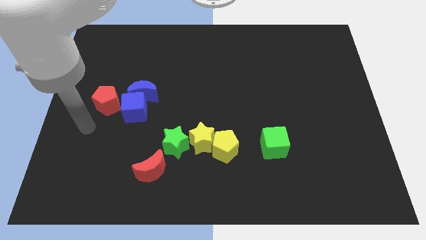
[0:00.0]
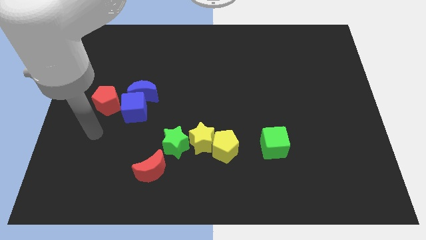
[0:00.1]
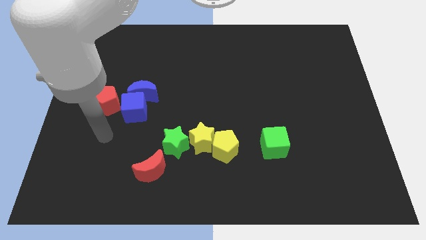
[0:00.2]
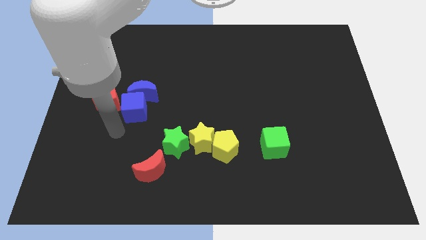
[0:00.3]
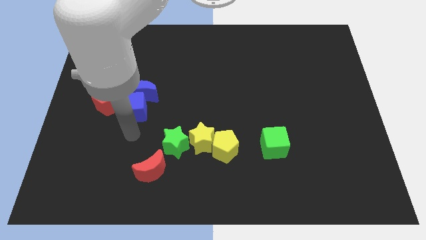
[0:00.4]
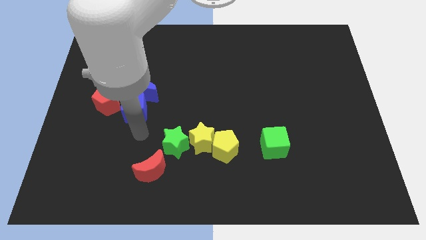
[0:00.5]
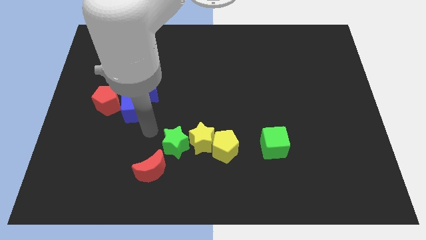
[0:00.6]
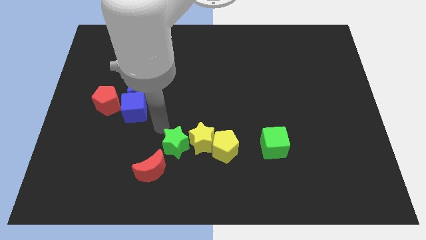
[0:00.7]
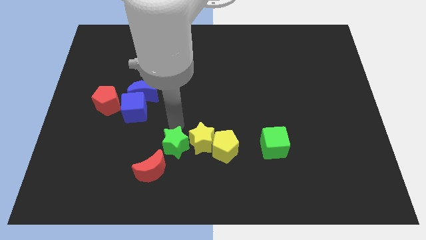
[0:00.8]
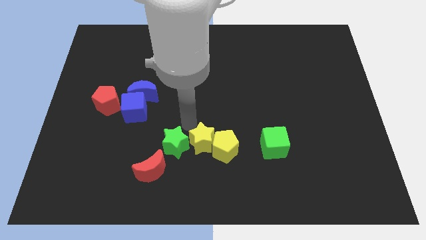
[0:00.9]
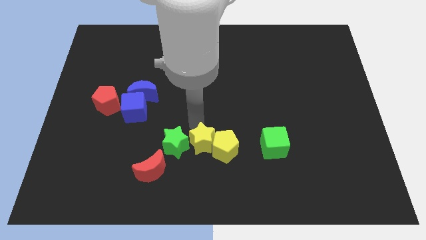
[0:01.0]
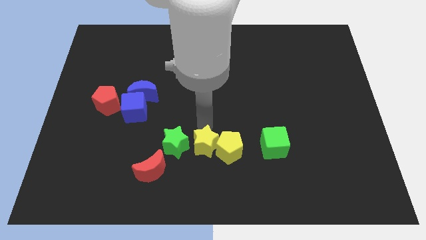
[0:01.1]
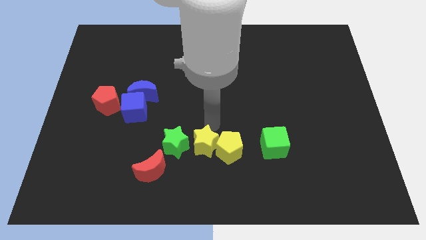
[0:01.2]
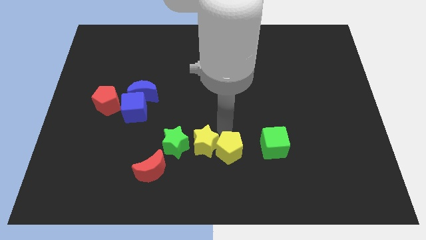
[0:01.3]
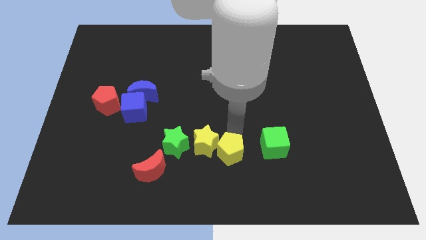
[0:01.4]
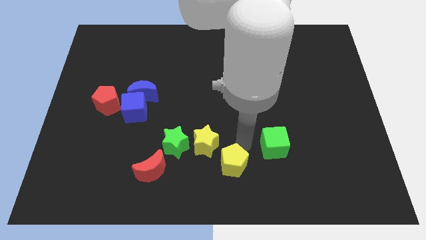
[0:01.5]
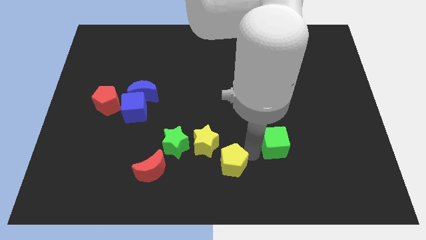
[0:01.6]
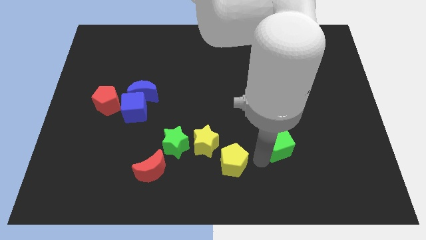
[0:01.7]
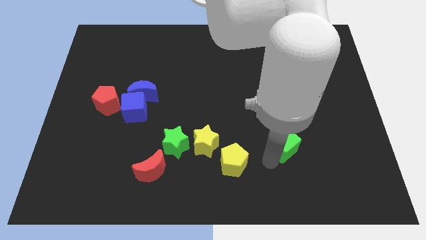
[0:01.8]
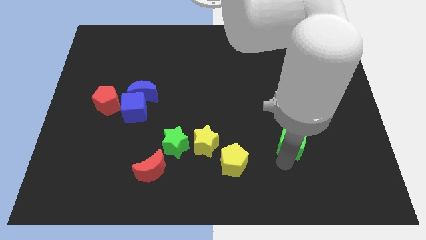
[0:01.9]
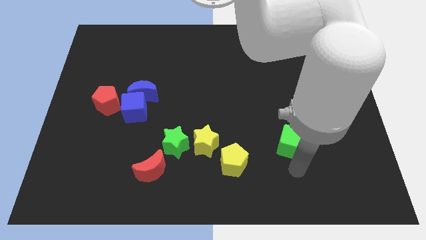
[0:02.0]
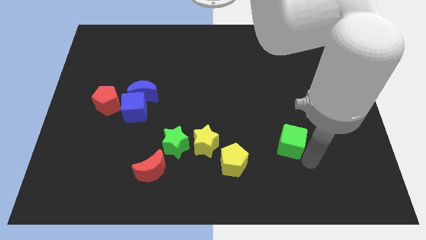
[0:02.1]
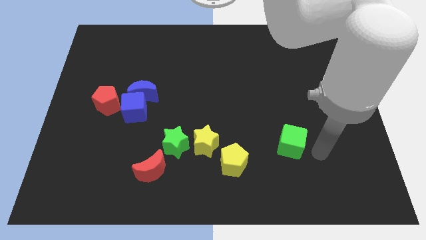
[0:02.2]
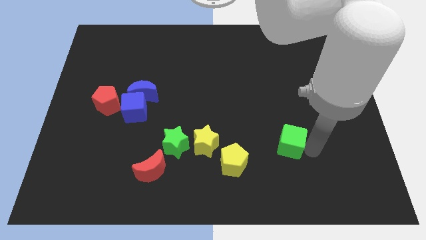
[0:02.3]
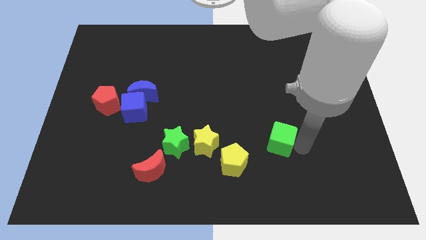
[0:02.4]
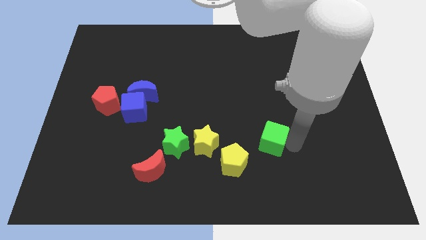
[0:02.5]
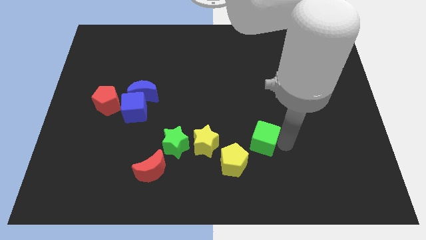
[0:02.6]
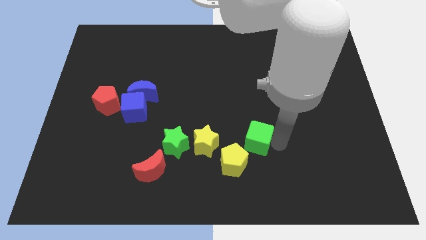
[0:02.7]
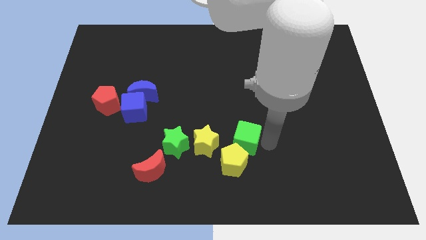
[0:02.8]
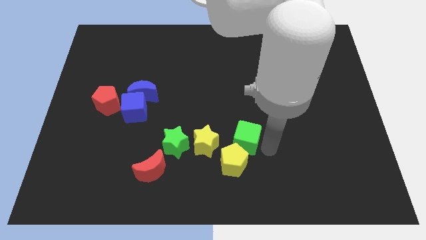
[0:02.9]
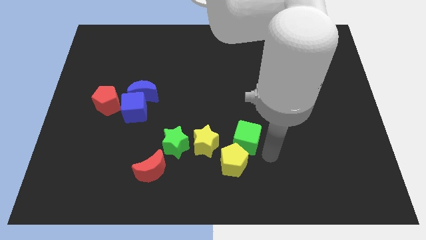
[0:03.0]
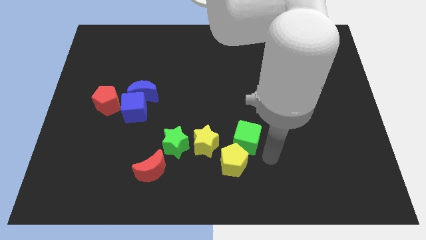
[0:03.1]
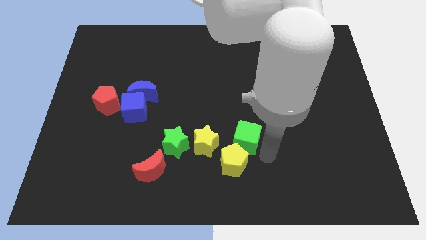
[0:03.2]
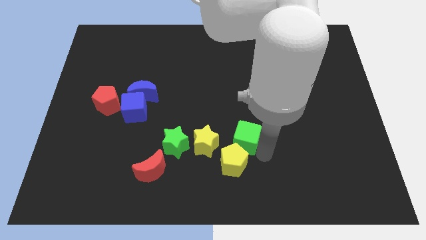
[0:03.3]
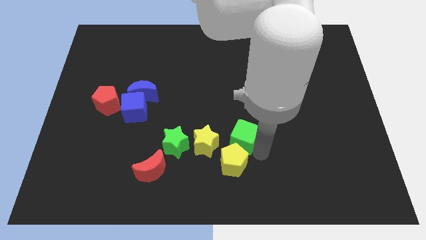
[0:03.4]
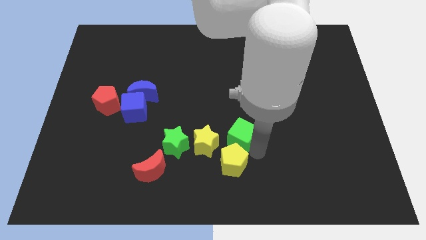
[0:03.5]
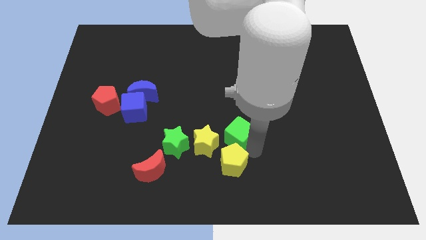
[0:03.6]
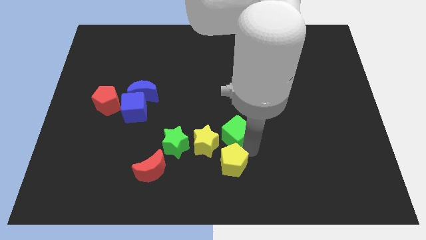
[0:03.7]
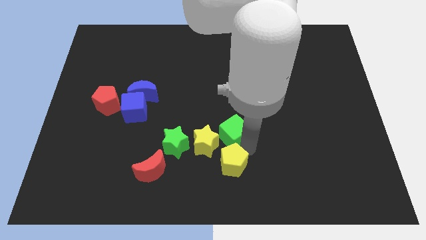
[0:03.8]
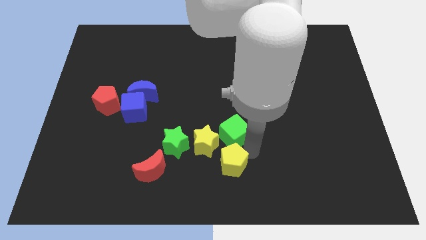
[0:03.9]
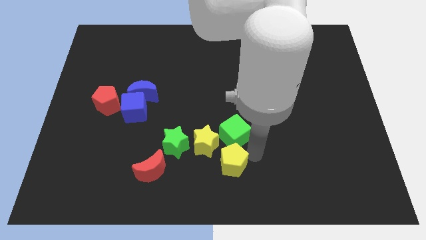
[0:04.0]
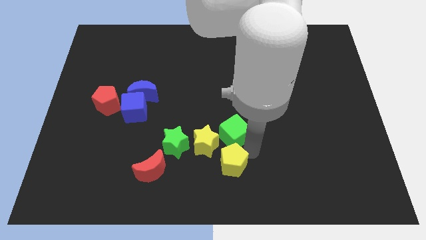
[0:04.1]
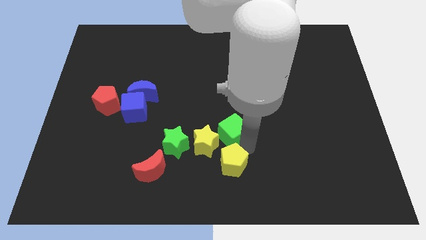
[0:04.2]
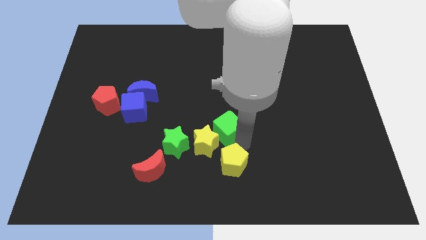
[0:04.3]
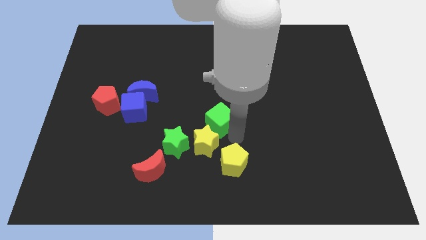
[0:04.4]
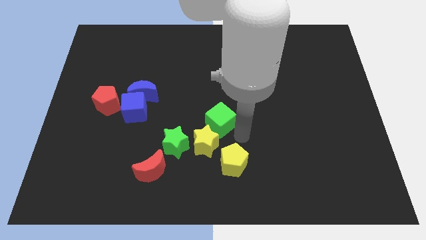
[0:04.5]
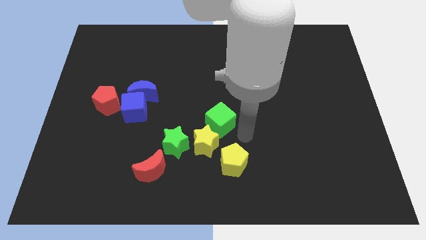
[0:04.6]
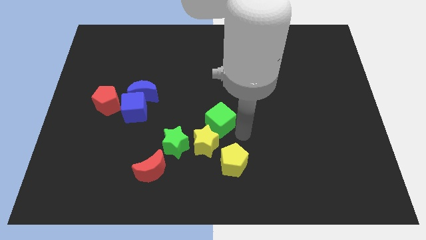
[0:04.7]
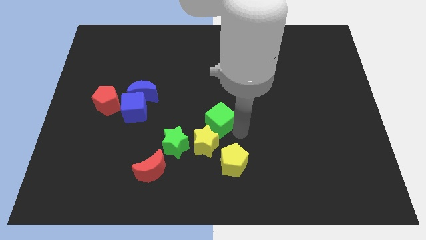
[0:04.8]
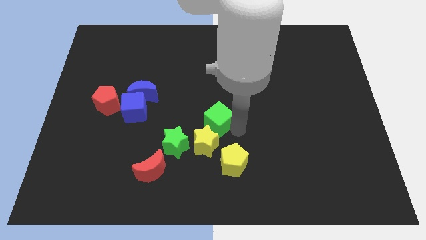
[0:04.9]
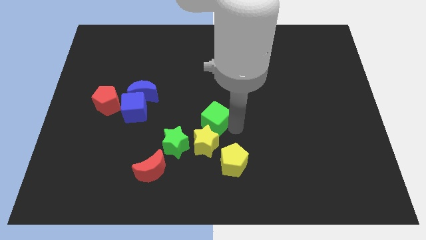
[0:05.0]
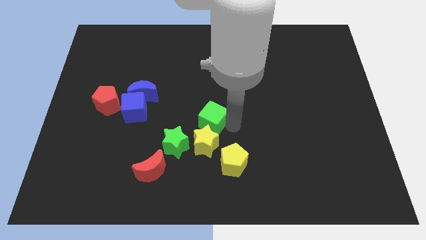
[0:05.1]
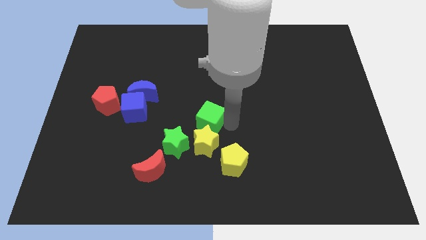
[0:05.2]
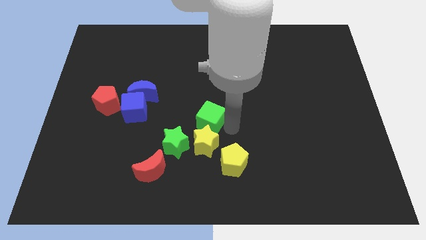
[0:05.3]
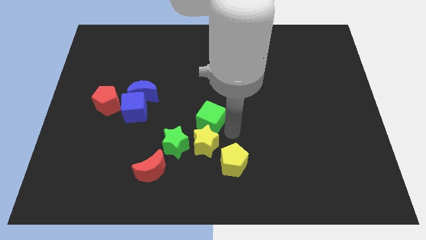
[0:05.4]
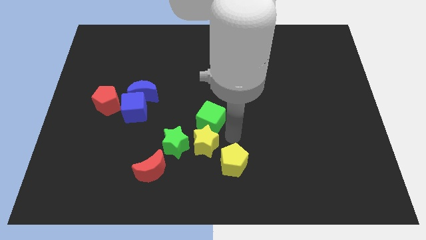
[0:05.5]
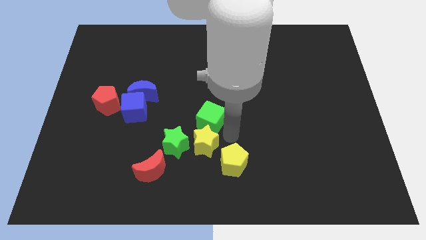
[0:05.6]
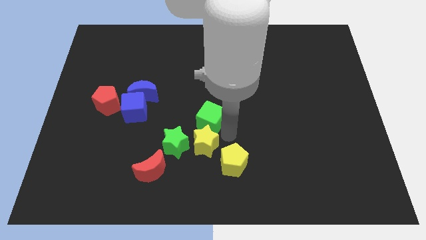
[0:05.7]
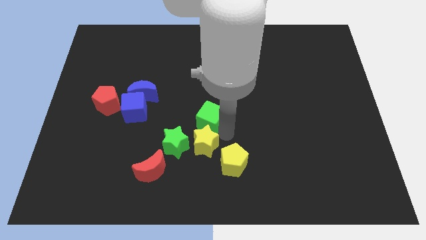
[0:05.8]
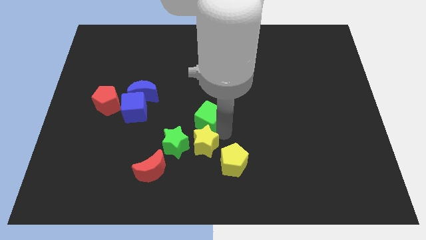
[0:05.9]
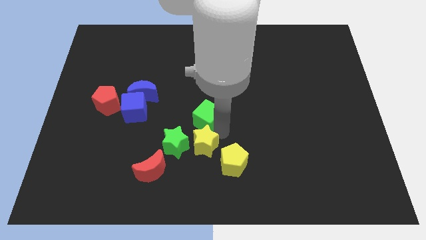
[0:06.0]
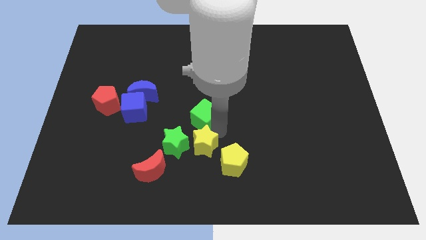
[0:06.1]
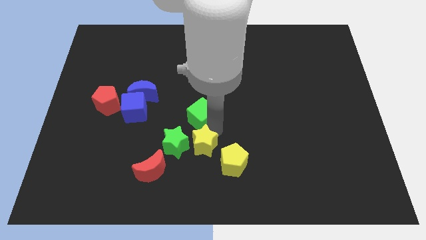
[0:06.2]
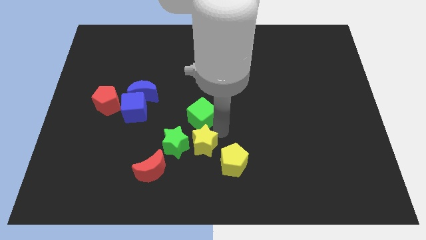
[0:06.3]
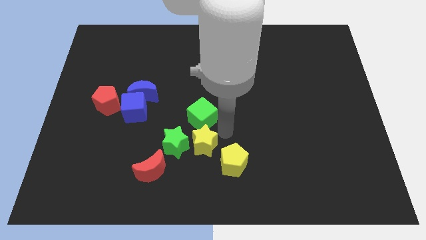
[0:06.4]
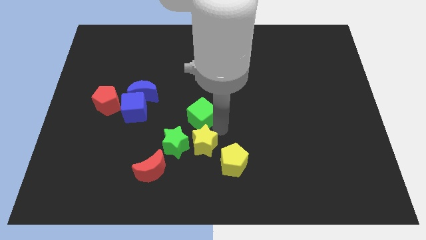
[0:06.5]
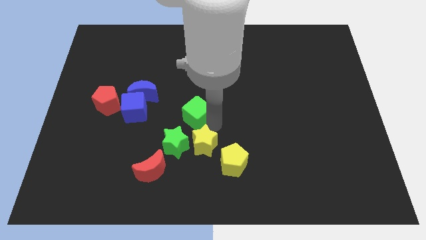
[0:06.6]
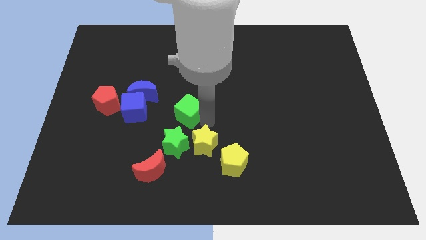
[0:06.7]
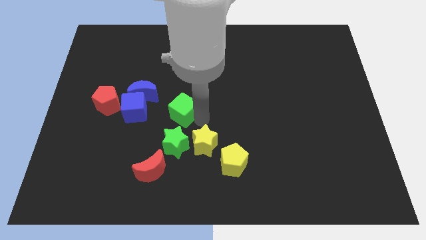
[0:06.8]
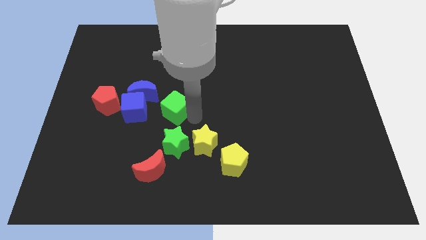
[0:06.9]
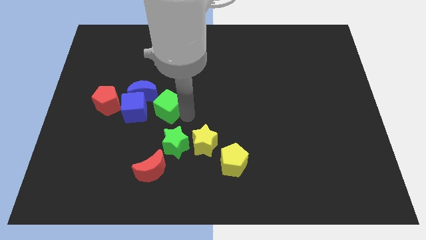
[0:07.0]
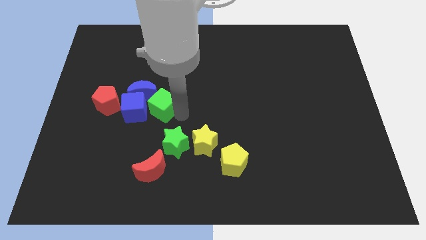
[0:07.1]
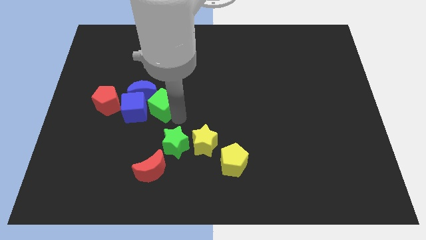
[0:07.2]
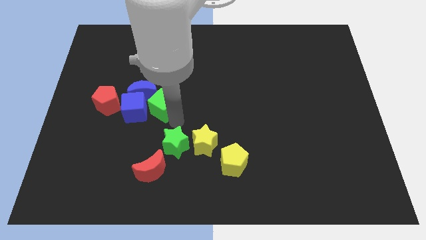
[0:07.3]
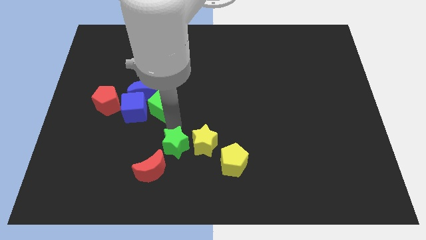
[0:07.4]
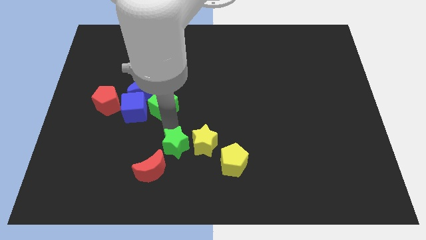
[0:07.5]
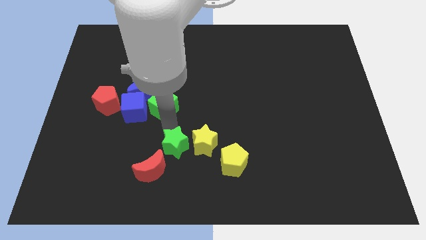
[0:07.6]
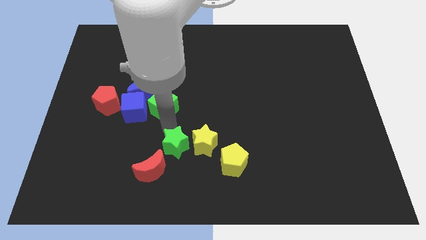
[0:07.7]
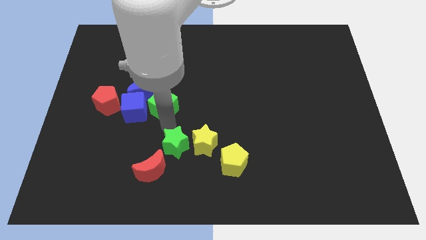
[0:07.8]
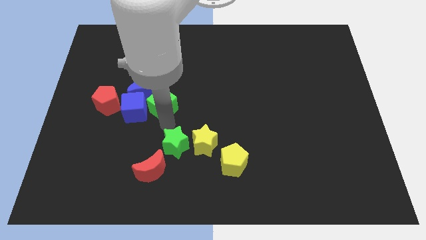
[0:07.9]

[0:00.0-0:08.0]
slide the green cube next to the blue moon

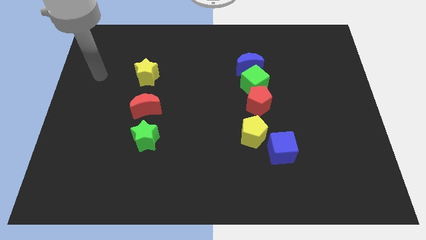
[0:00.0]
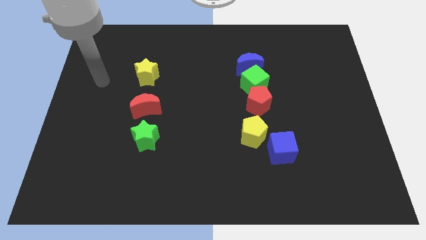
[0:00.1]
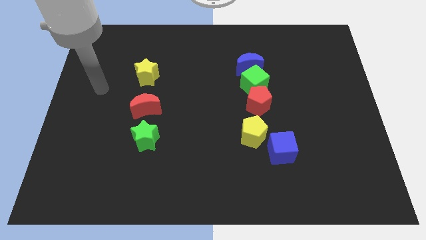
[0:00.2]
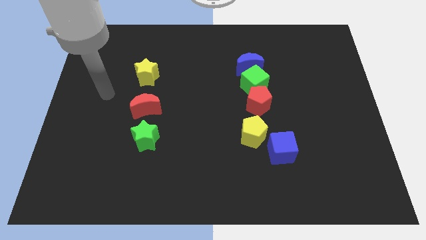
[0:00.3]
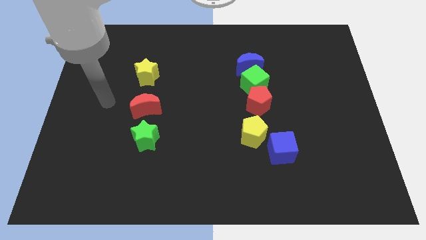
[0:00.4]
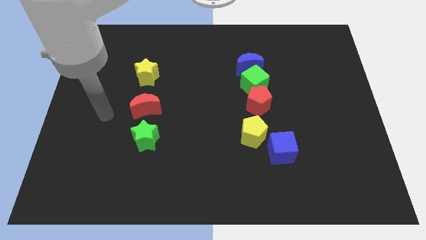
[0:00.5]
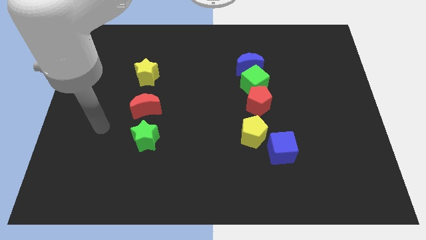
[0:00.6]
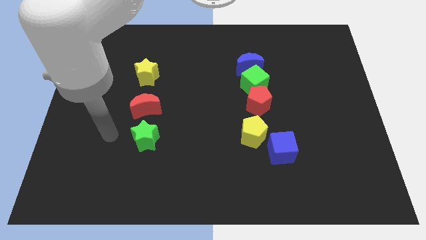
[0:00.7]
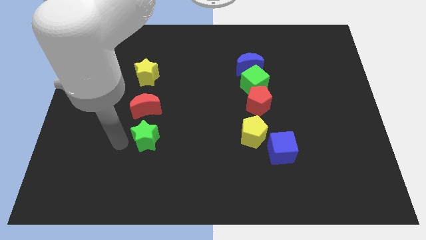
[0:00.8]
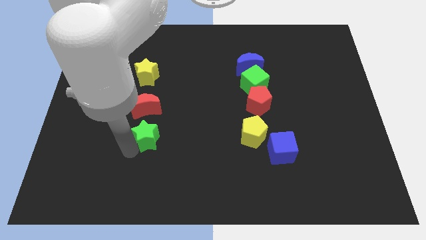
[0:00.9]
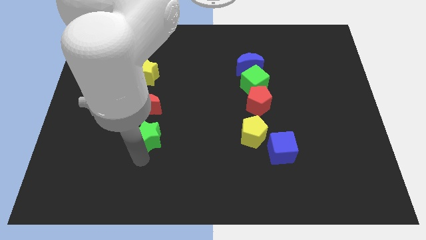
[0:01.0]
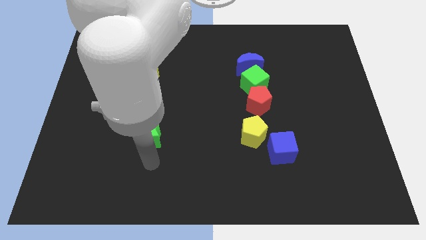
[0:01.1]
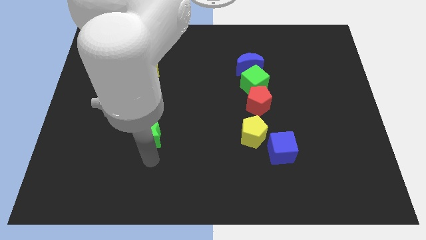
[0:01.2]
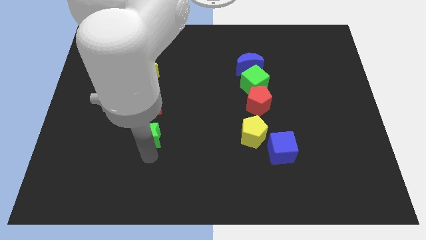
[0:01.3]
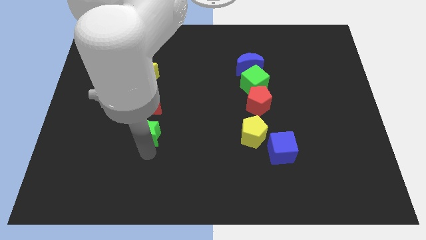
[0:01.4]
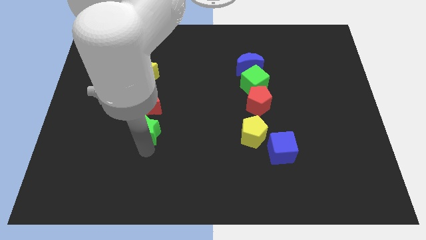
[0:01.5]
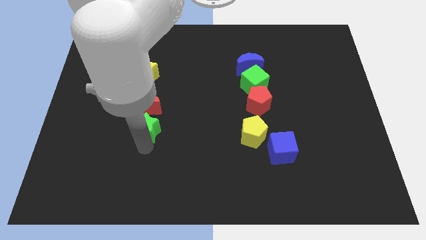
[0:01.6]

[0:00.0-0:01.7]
move the green star close to the red moon
